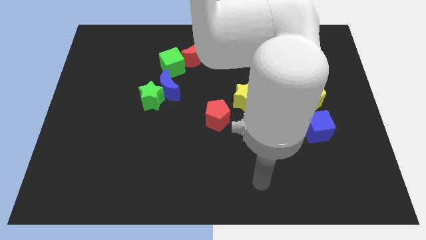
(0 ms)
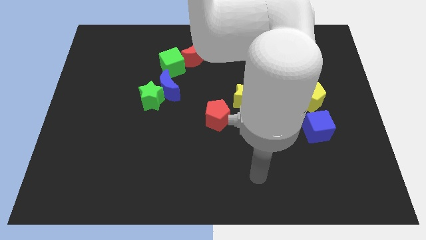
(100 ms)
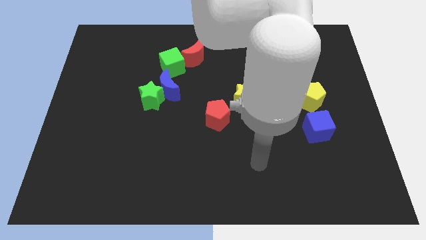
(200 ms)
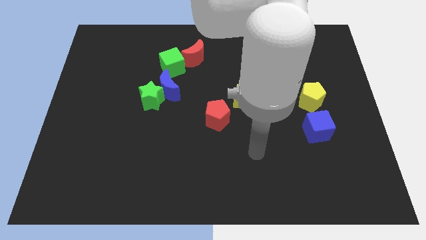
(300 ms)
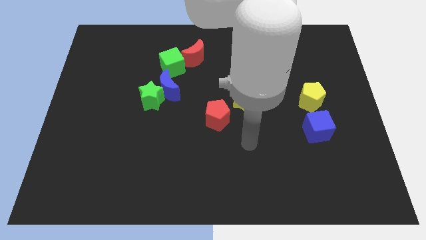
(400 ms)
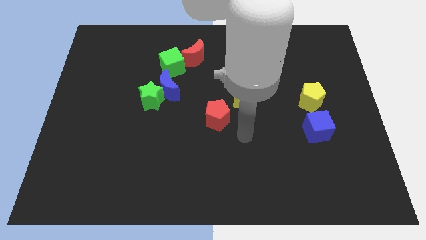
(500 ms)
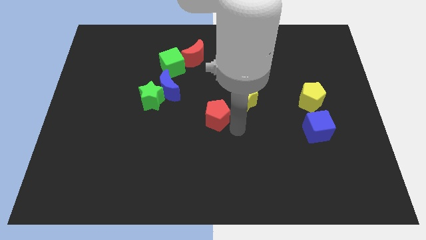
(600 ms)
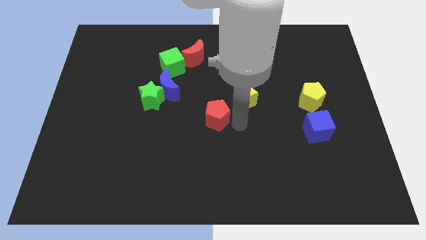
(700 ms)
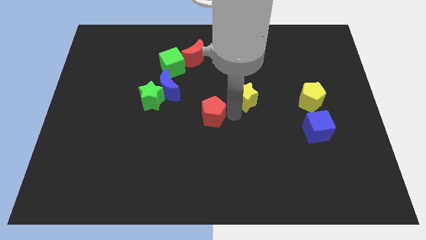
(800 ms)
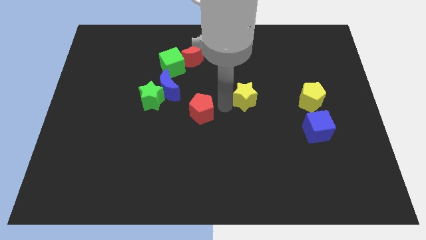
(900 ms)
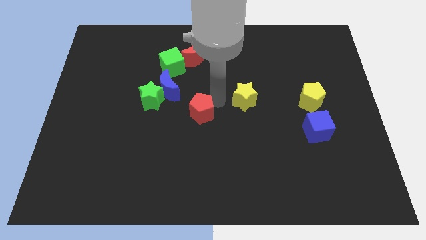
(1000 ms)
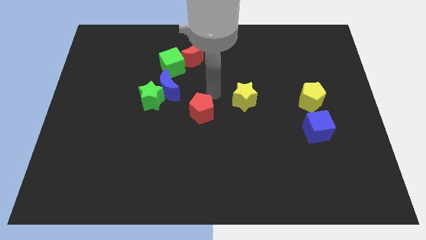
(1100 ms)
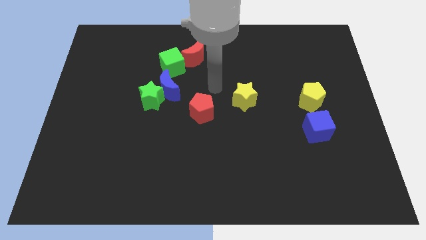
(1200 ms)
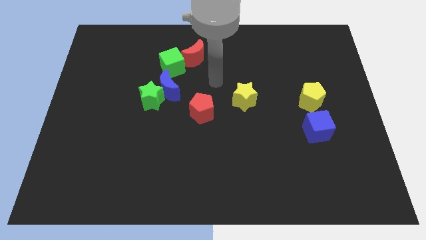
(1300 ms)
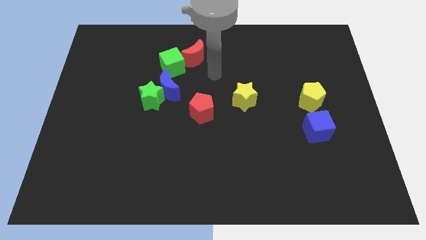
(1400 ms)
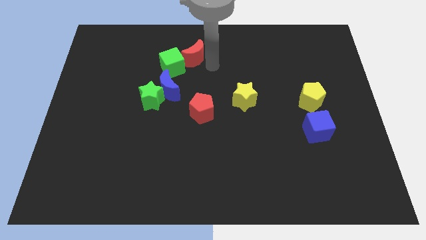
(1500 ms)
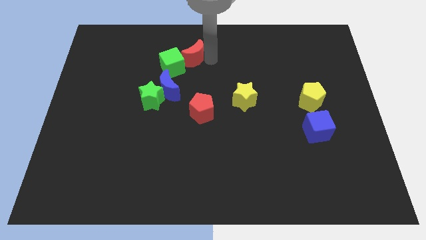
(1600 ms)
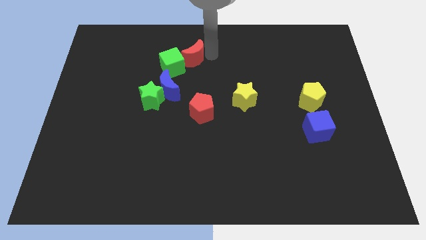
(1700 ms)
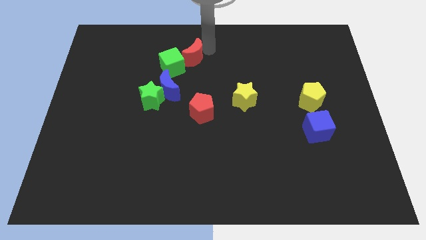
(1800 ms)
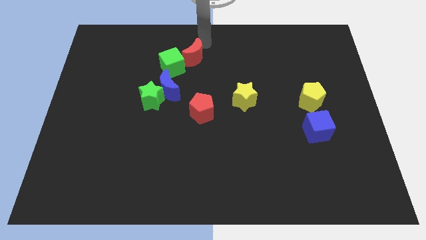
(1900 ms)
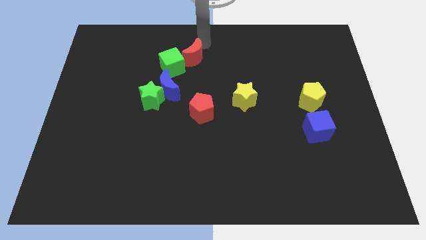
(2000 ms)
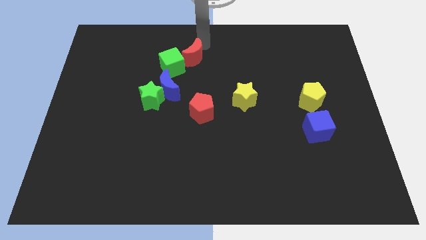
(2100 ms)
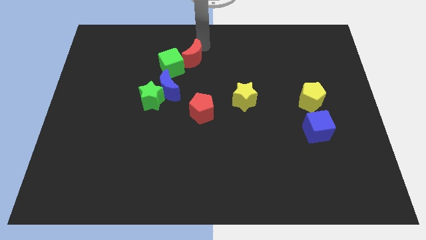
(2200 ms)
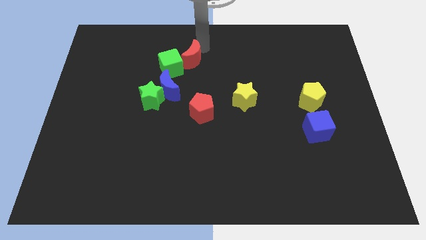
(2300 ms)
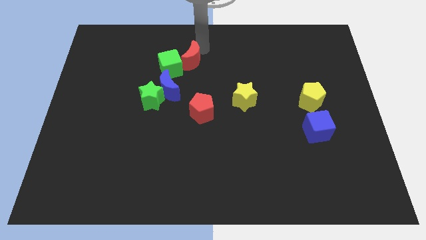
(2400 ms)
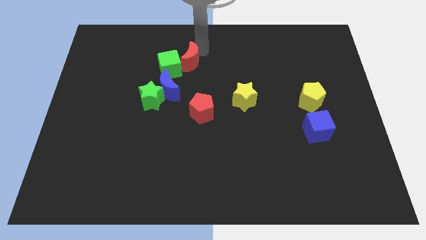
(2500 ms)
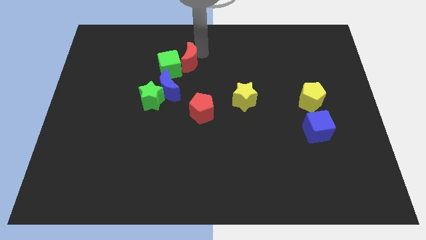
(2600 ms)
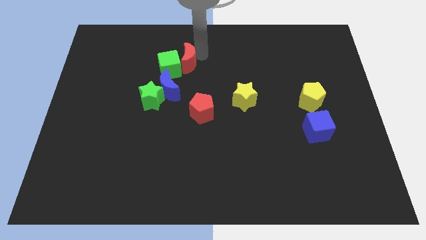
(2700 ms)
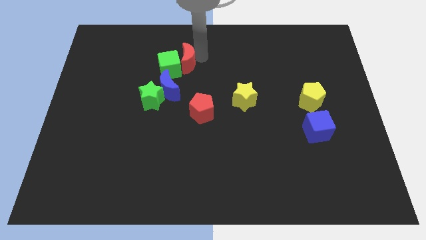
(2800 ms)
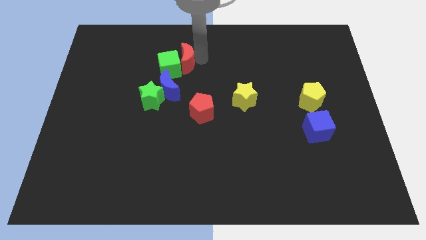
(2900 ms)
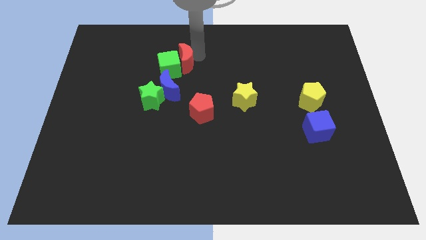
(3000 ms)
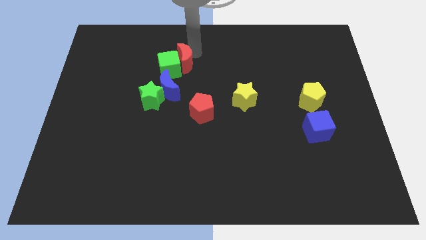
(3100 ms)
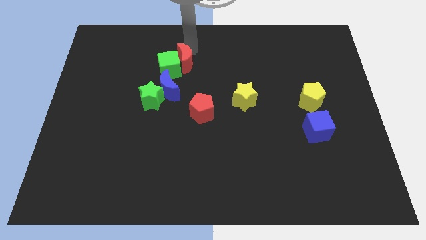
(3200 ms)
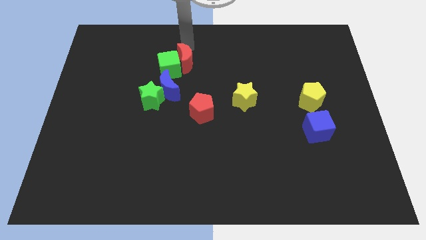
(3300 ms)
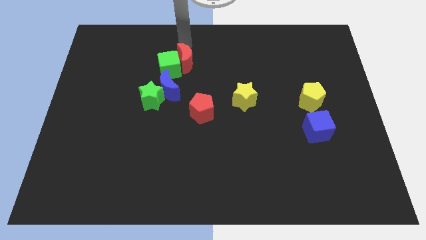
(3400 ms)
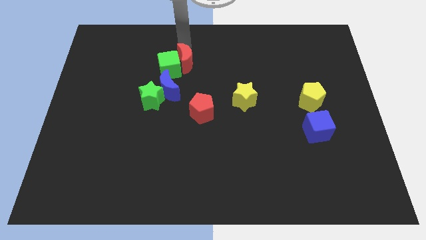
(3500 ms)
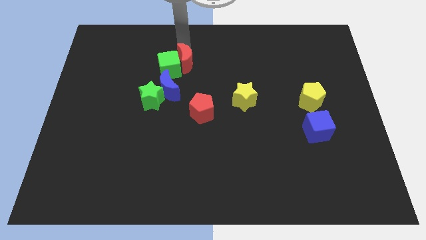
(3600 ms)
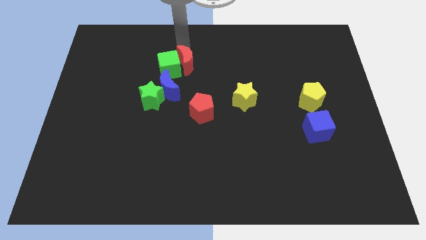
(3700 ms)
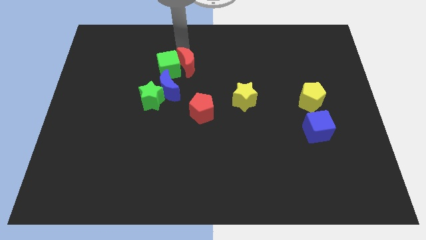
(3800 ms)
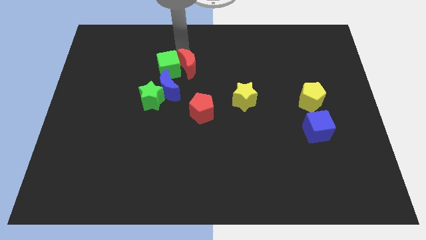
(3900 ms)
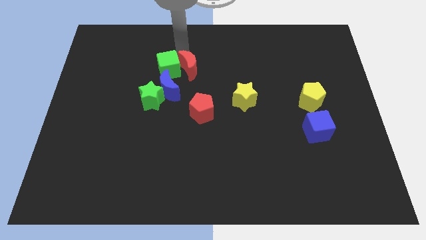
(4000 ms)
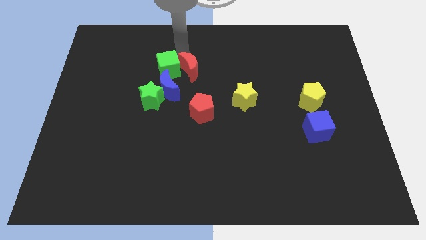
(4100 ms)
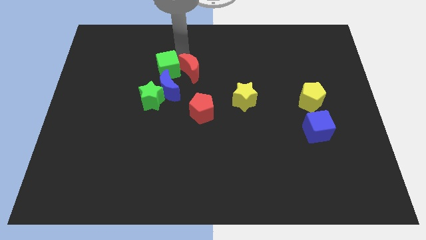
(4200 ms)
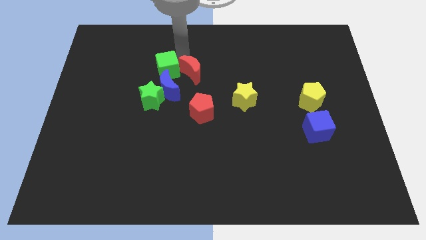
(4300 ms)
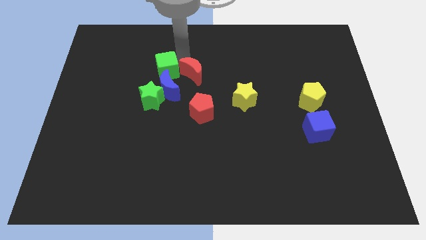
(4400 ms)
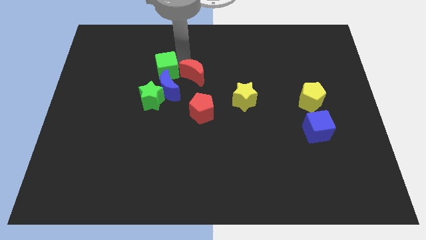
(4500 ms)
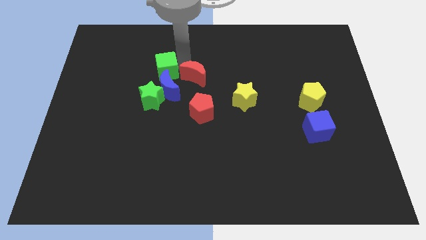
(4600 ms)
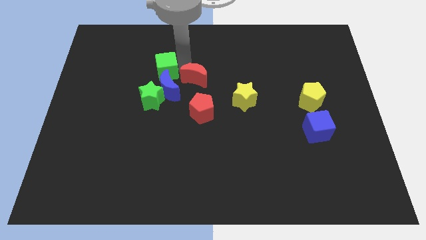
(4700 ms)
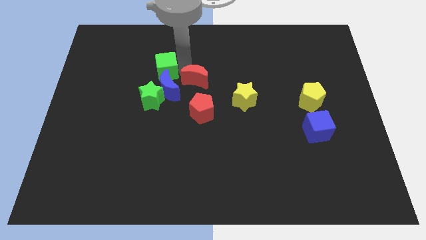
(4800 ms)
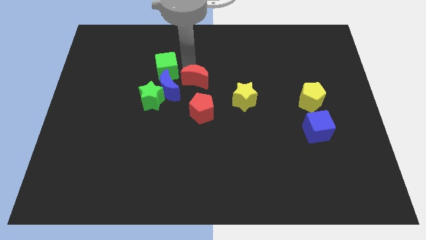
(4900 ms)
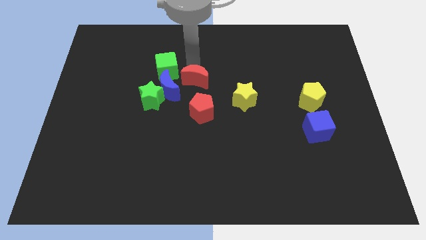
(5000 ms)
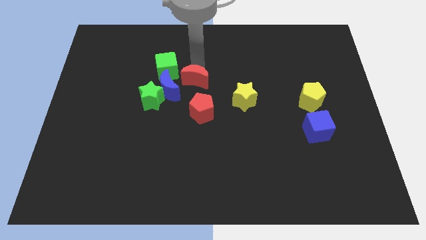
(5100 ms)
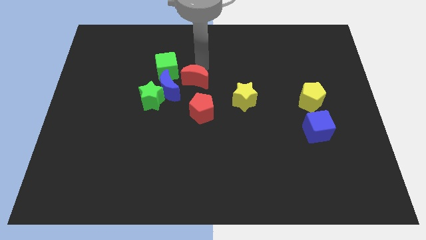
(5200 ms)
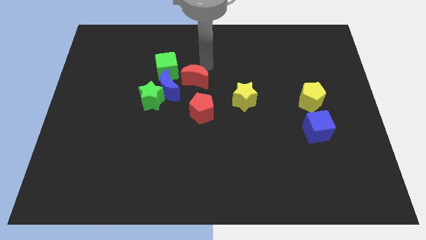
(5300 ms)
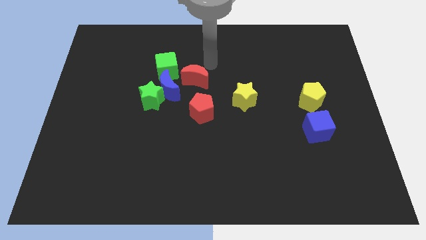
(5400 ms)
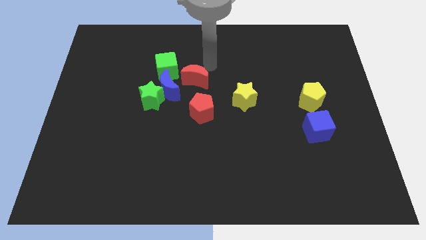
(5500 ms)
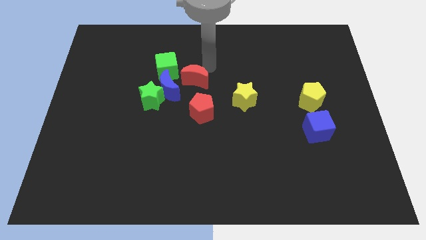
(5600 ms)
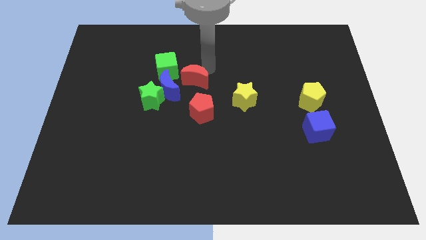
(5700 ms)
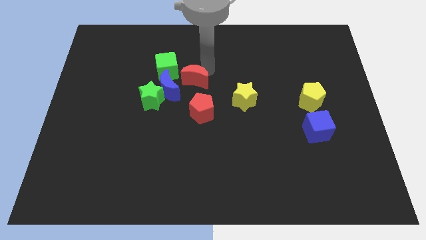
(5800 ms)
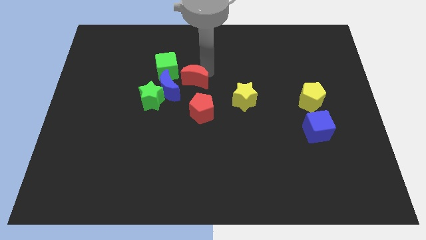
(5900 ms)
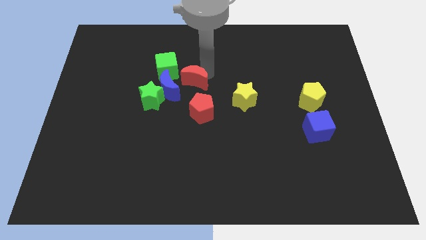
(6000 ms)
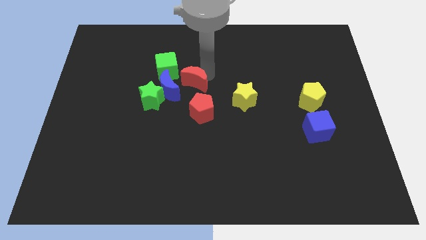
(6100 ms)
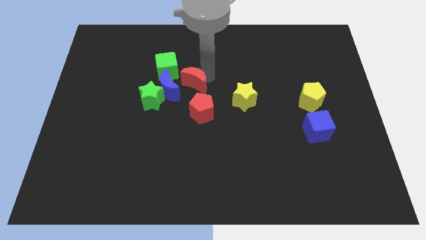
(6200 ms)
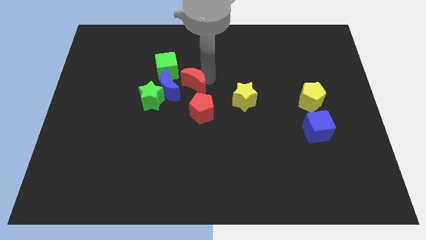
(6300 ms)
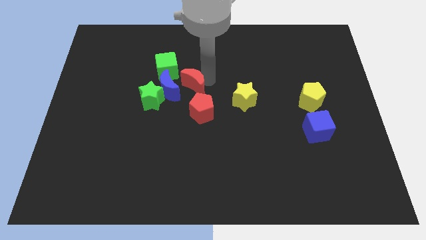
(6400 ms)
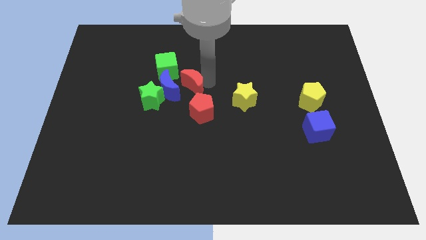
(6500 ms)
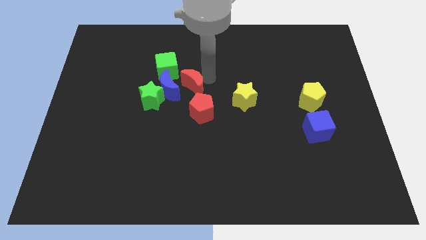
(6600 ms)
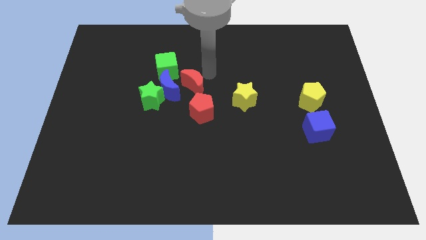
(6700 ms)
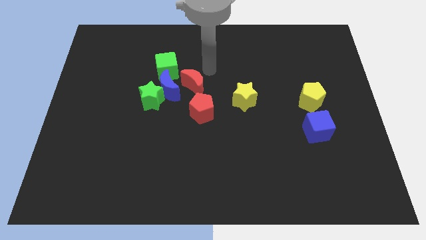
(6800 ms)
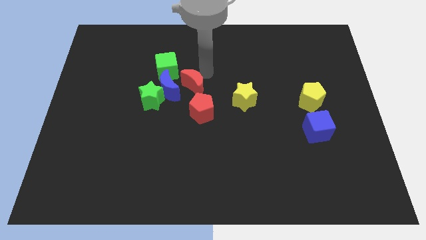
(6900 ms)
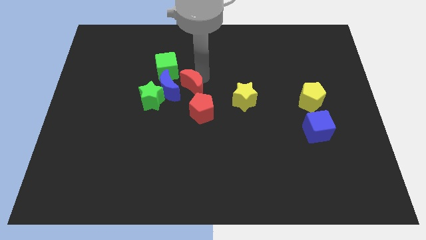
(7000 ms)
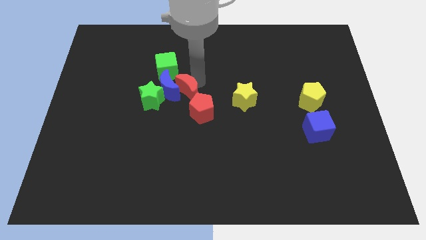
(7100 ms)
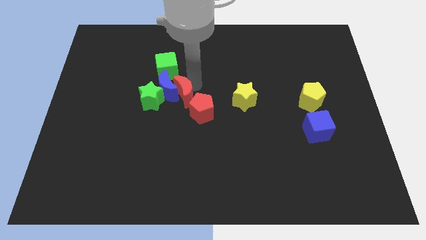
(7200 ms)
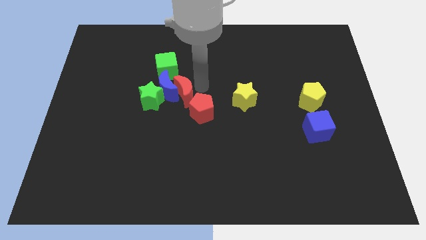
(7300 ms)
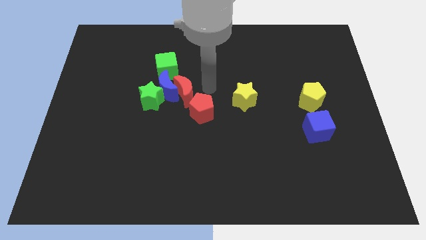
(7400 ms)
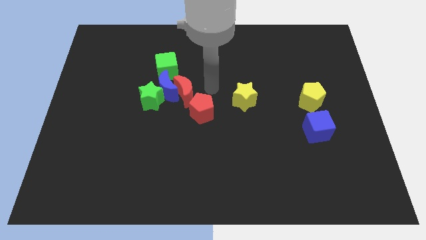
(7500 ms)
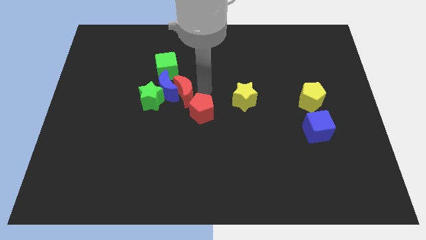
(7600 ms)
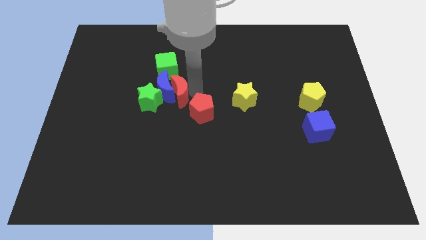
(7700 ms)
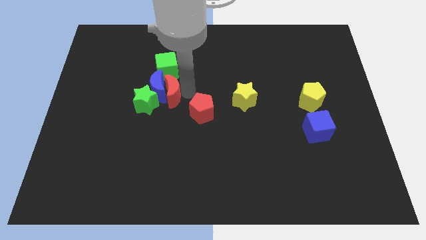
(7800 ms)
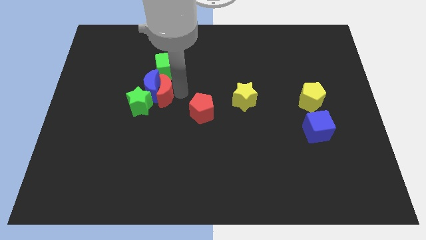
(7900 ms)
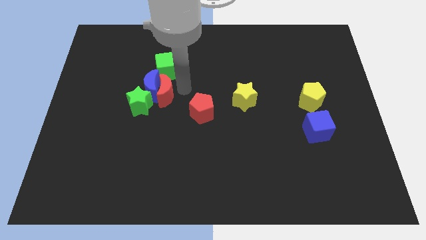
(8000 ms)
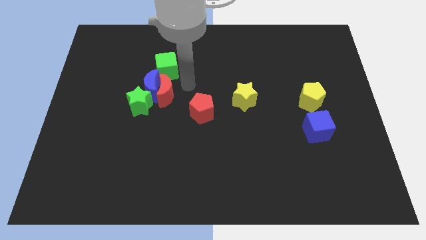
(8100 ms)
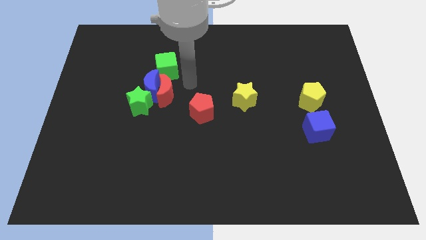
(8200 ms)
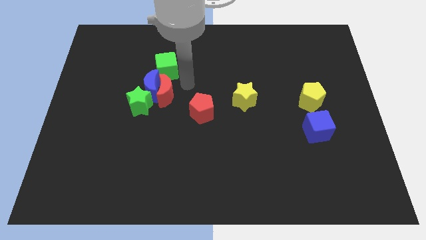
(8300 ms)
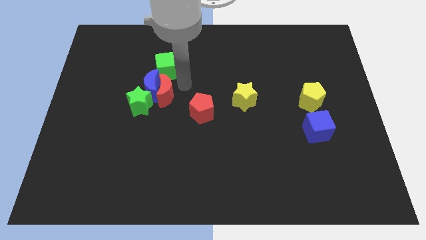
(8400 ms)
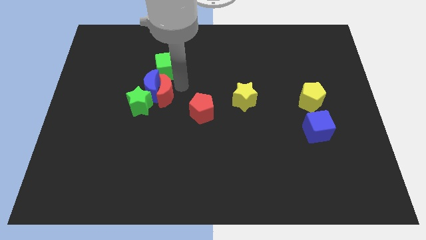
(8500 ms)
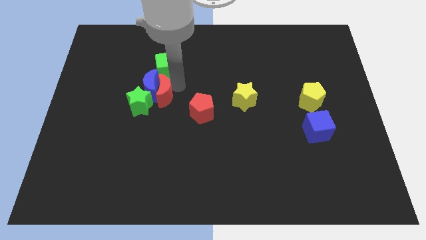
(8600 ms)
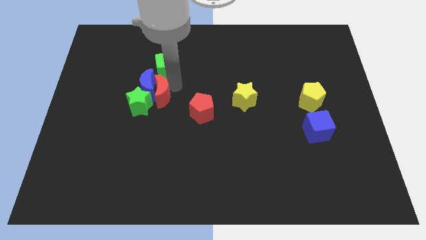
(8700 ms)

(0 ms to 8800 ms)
push the red moon next to the green star
